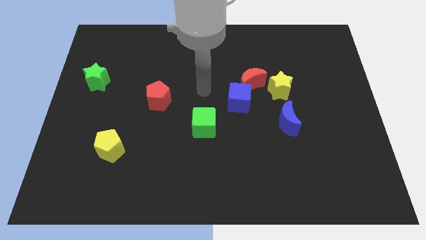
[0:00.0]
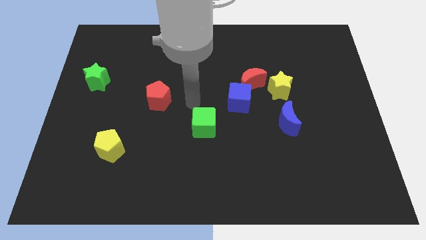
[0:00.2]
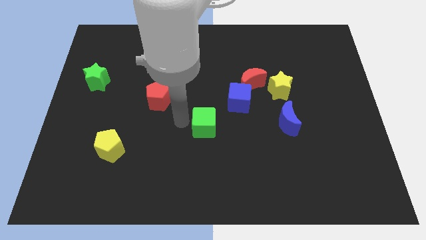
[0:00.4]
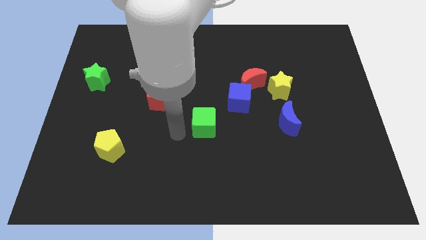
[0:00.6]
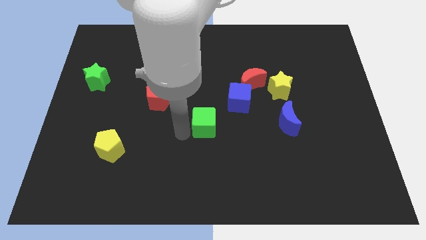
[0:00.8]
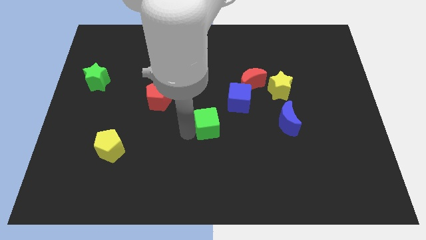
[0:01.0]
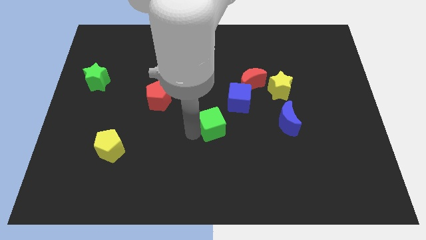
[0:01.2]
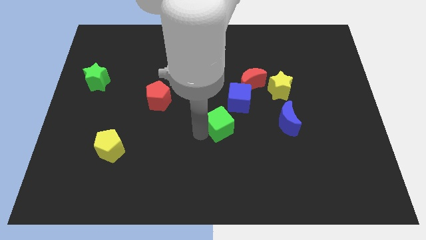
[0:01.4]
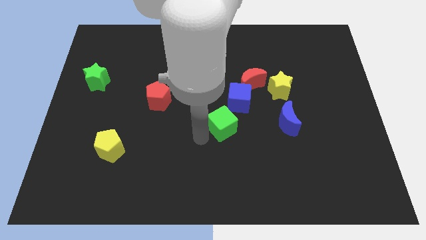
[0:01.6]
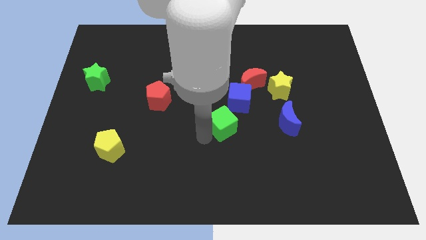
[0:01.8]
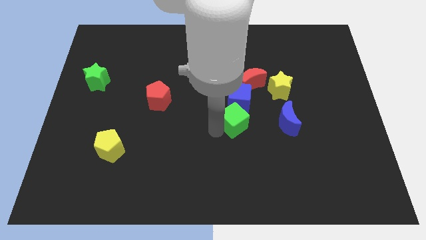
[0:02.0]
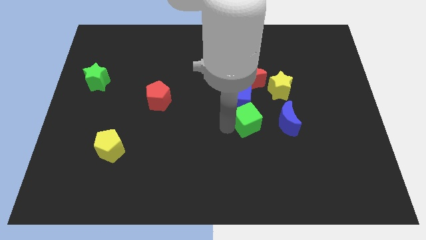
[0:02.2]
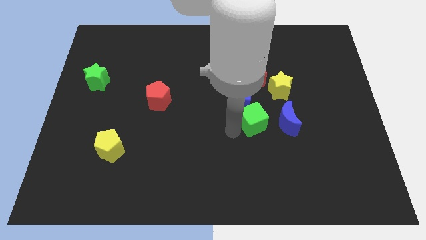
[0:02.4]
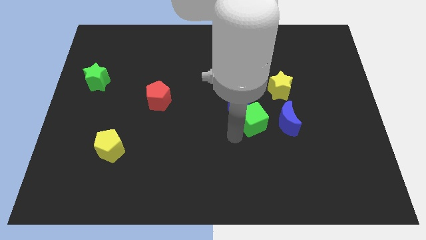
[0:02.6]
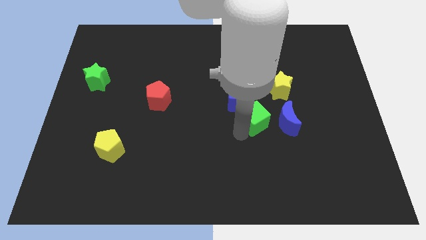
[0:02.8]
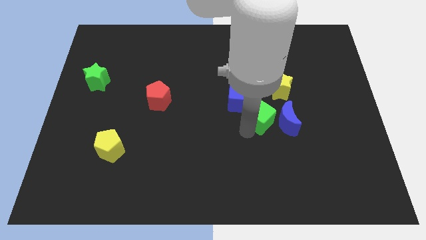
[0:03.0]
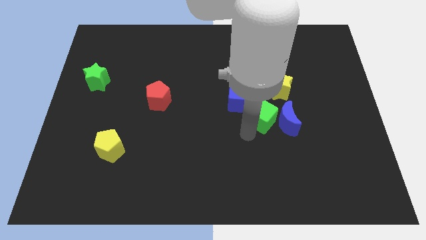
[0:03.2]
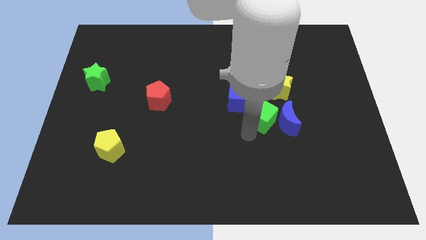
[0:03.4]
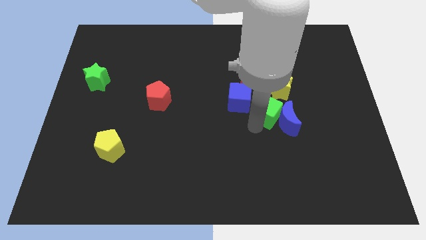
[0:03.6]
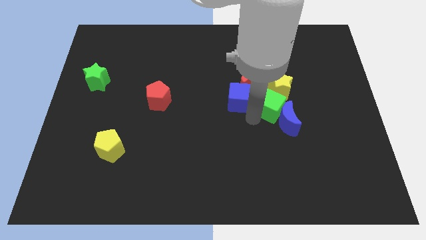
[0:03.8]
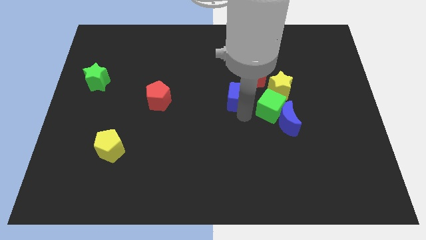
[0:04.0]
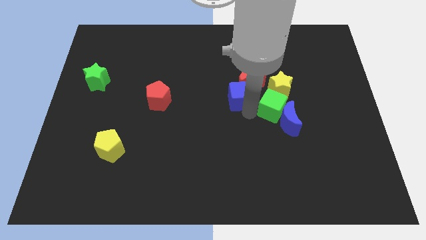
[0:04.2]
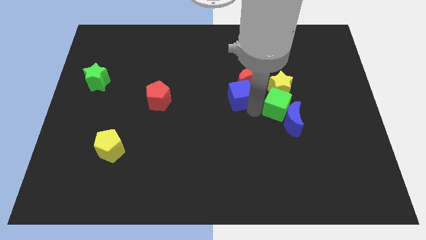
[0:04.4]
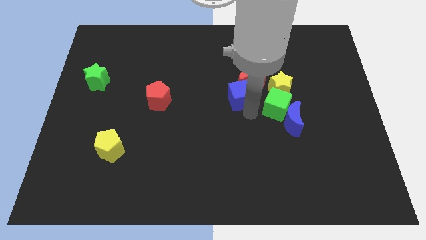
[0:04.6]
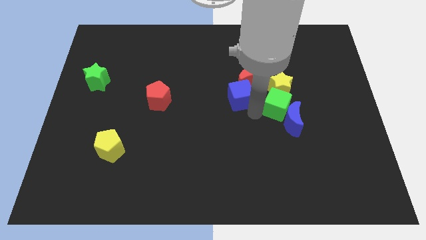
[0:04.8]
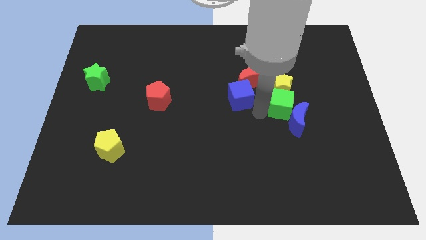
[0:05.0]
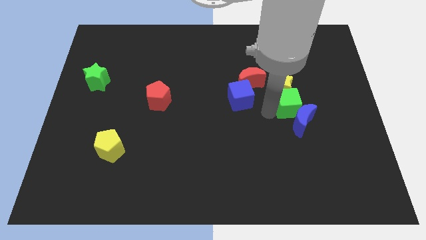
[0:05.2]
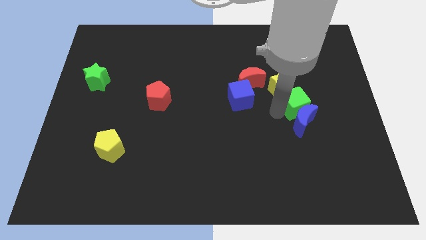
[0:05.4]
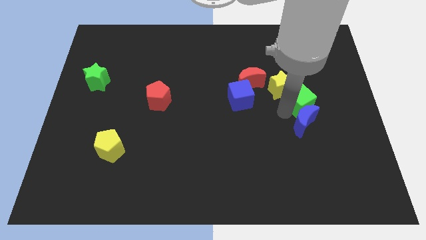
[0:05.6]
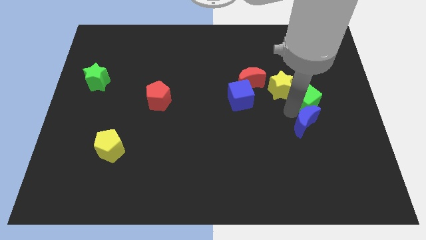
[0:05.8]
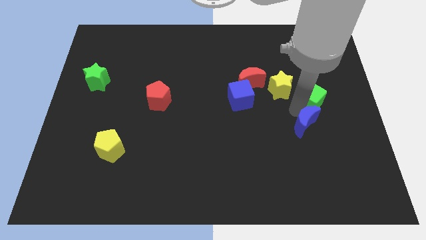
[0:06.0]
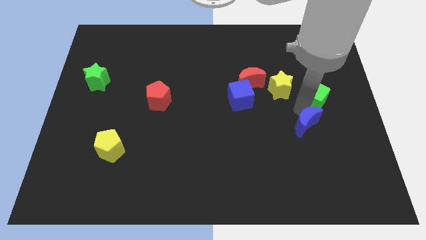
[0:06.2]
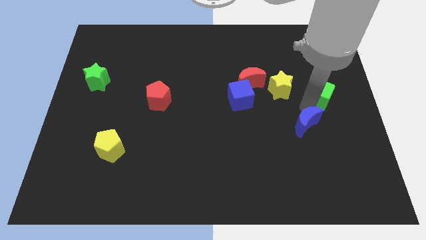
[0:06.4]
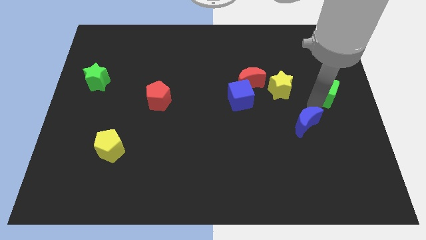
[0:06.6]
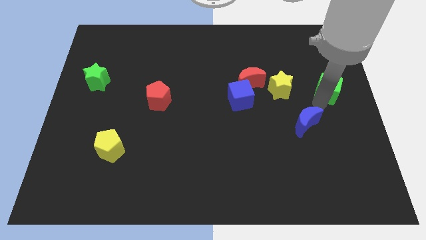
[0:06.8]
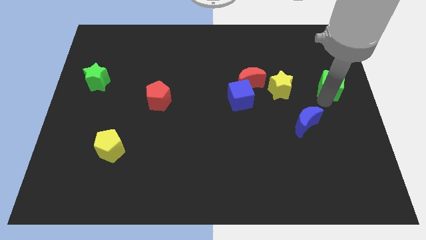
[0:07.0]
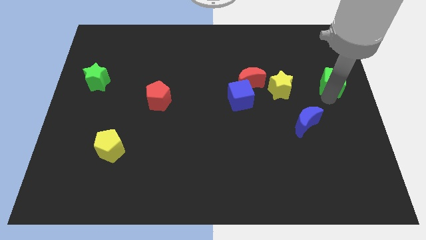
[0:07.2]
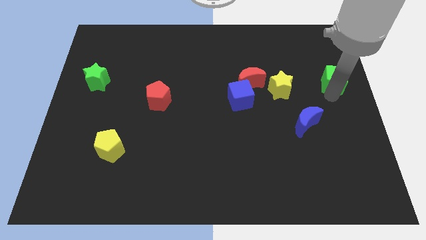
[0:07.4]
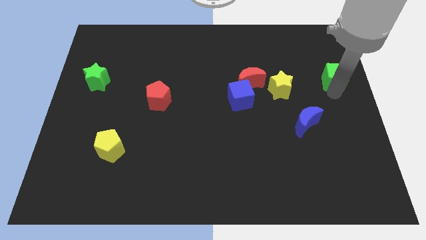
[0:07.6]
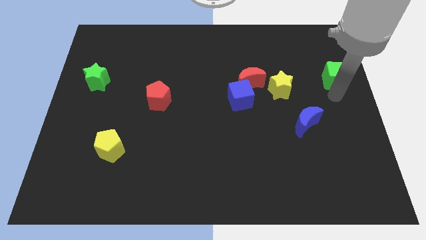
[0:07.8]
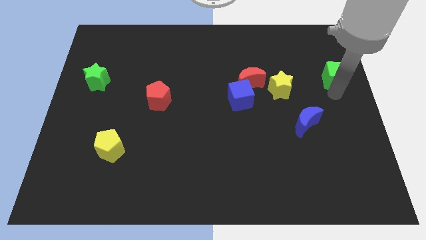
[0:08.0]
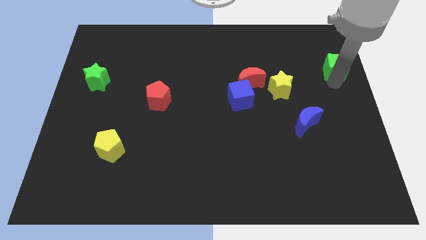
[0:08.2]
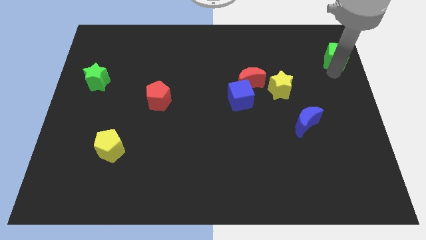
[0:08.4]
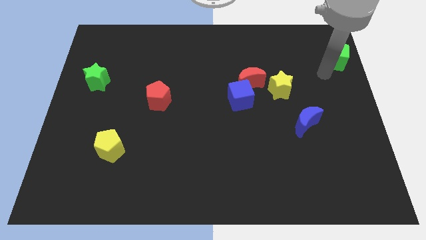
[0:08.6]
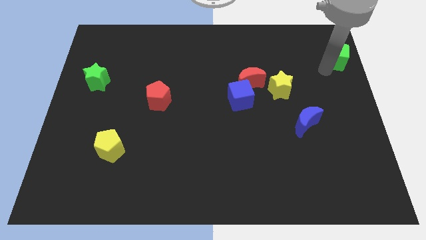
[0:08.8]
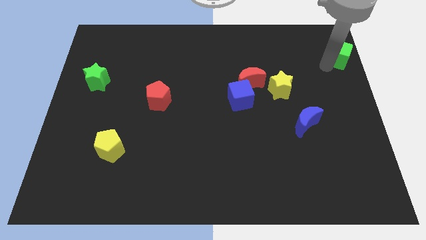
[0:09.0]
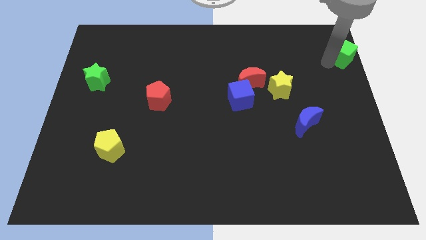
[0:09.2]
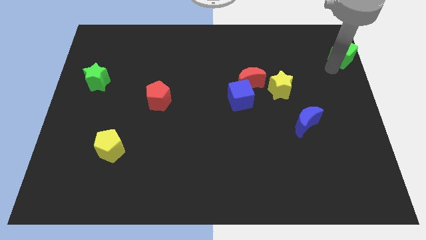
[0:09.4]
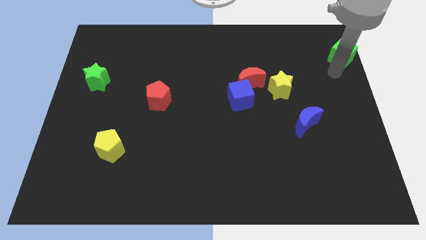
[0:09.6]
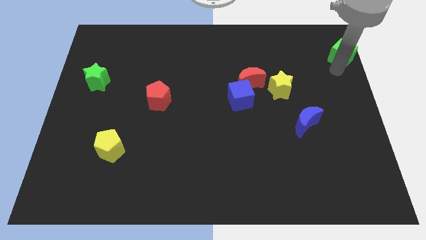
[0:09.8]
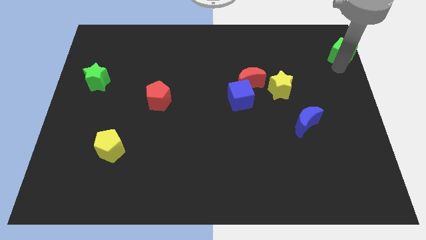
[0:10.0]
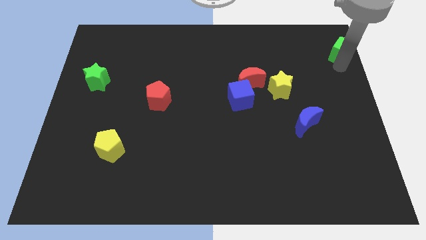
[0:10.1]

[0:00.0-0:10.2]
push the green cube to the top right corner

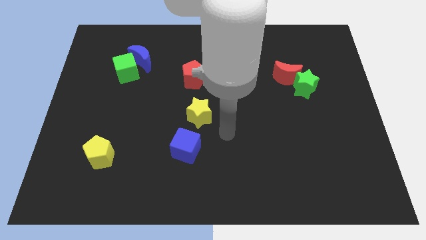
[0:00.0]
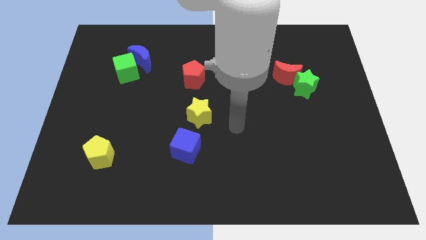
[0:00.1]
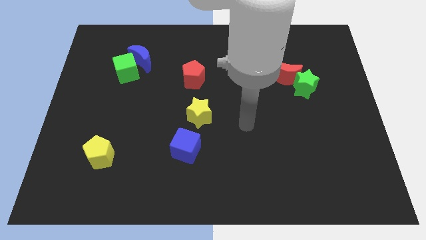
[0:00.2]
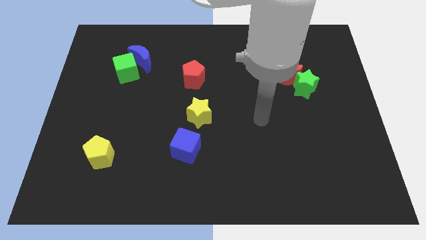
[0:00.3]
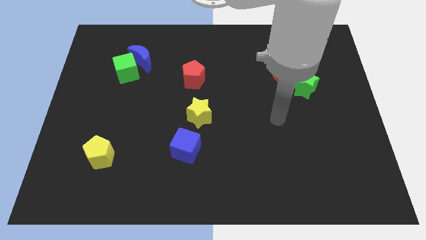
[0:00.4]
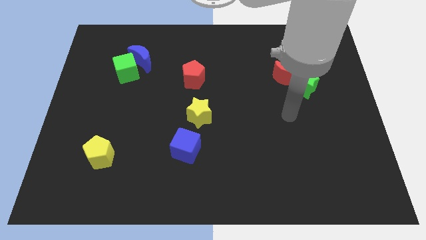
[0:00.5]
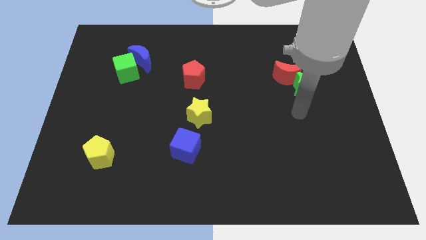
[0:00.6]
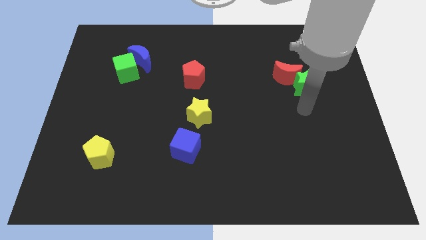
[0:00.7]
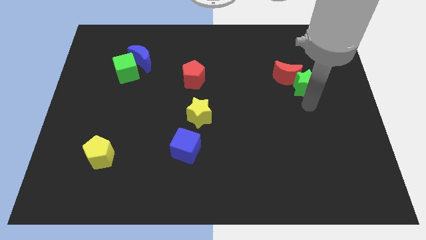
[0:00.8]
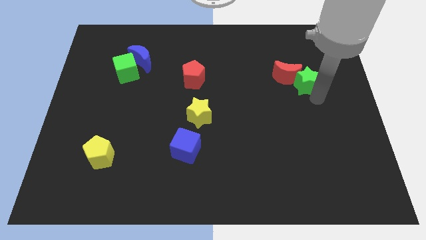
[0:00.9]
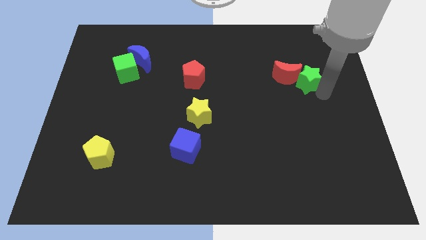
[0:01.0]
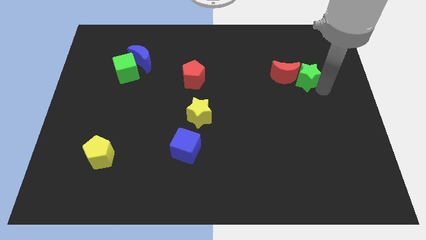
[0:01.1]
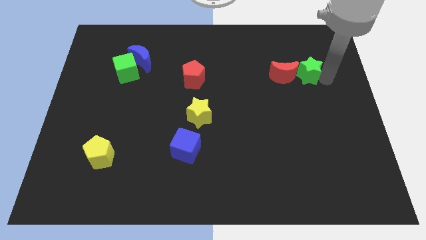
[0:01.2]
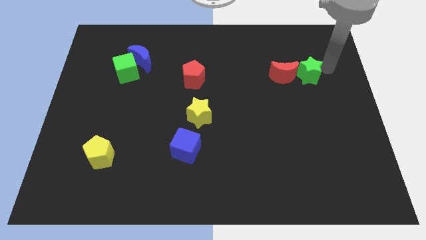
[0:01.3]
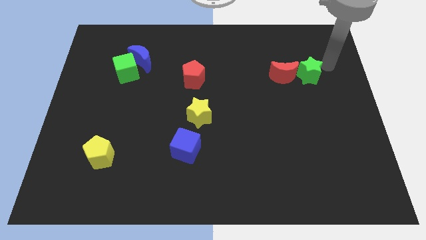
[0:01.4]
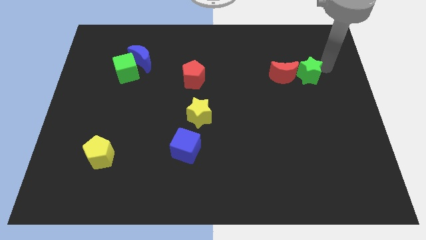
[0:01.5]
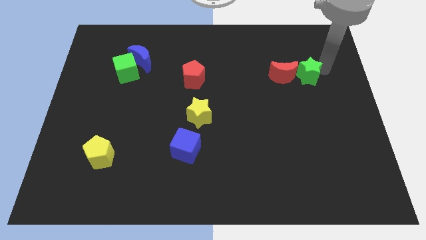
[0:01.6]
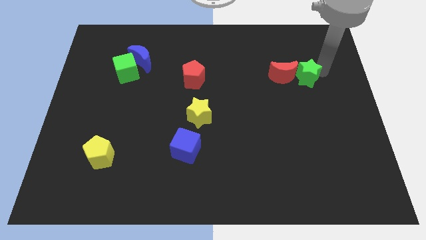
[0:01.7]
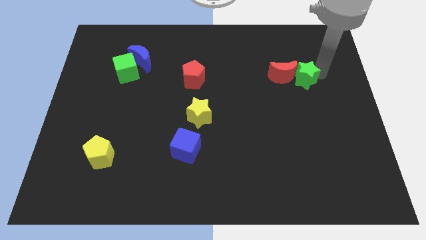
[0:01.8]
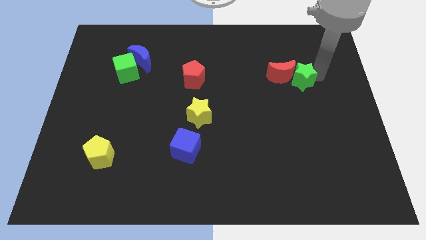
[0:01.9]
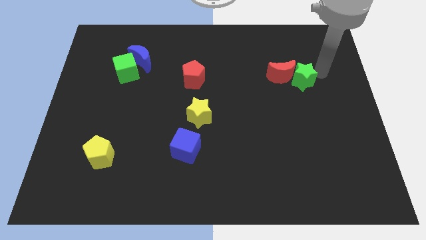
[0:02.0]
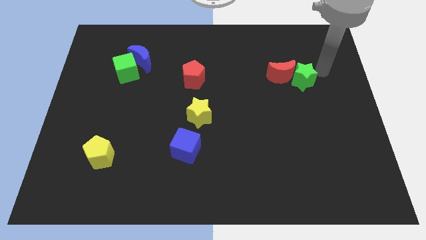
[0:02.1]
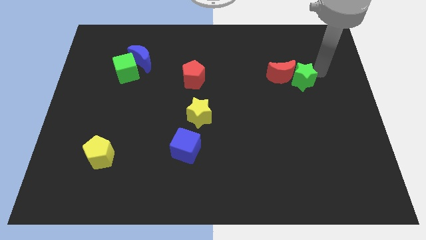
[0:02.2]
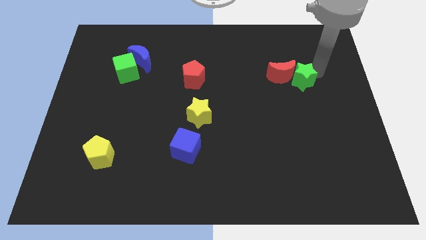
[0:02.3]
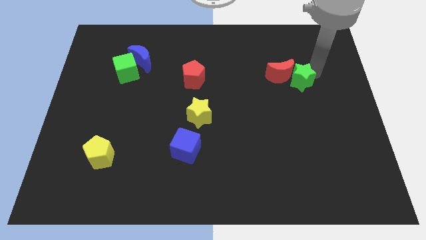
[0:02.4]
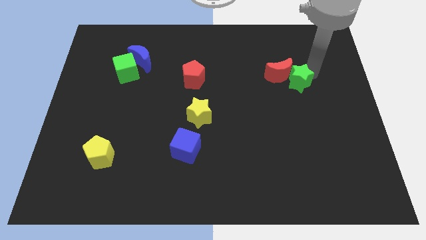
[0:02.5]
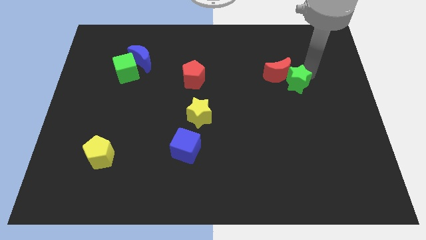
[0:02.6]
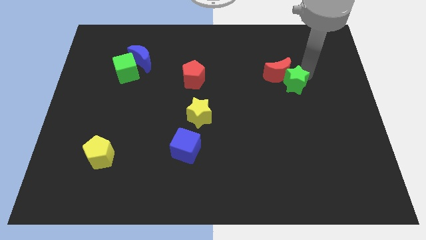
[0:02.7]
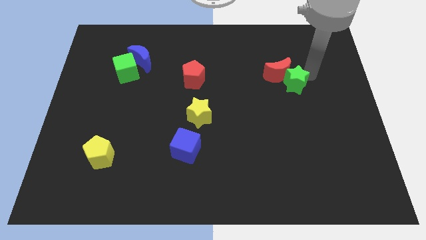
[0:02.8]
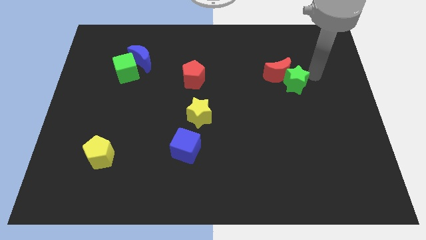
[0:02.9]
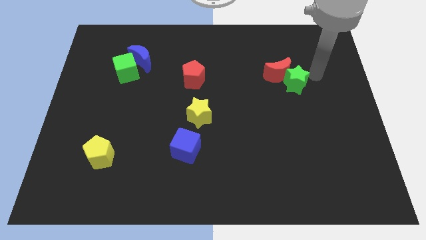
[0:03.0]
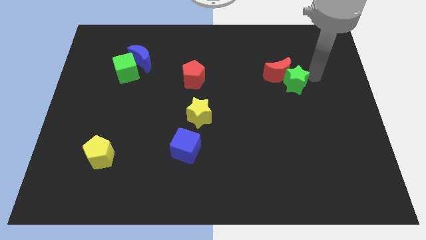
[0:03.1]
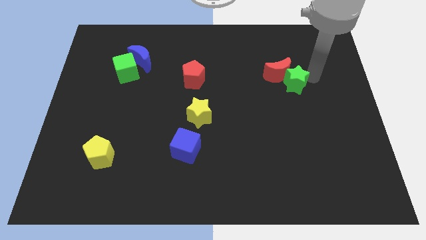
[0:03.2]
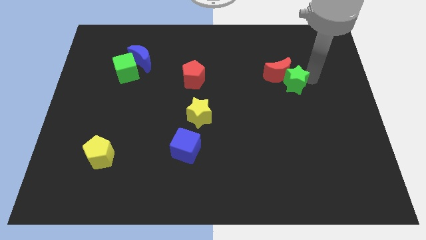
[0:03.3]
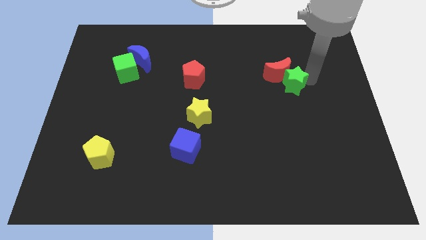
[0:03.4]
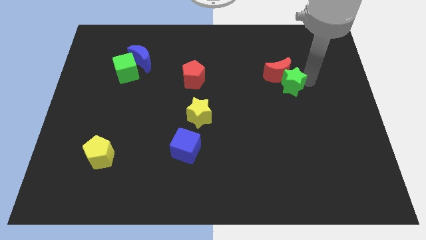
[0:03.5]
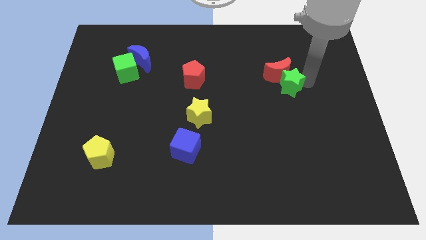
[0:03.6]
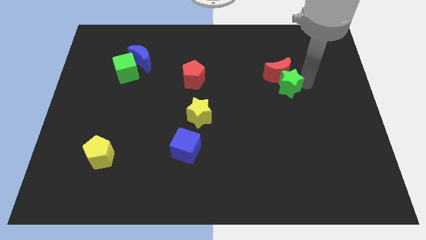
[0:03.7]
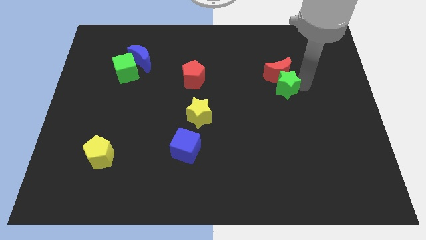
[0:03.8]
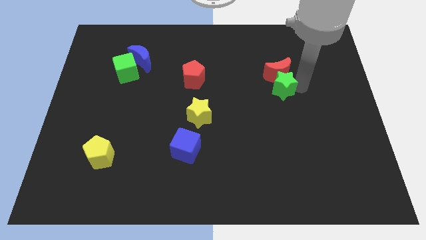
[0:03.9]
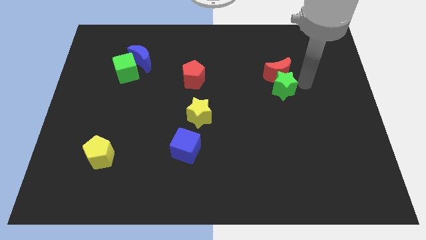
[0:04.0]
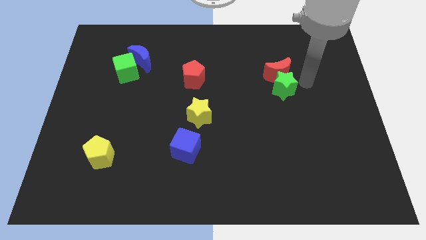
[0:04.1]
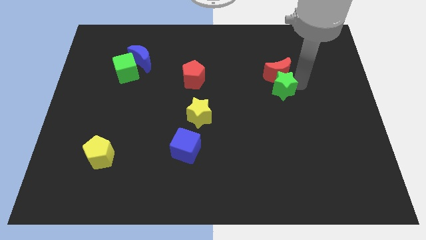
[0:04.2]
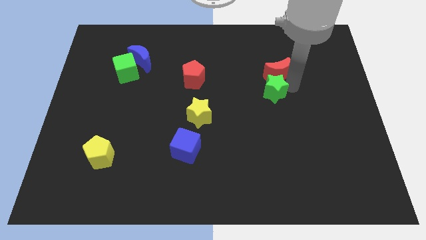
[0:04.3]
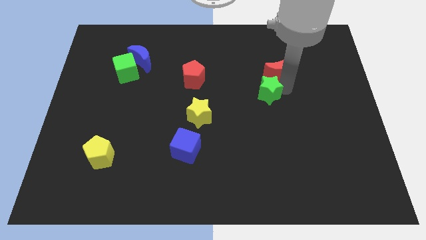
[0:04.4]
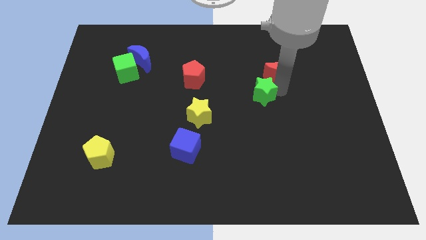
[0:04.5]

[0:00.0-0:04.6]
slide the green star to the center of the board
